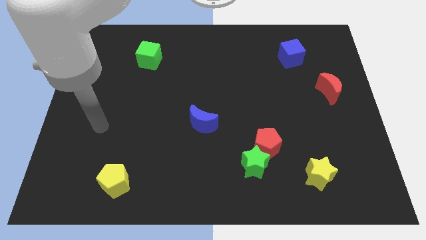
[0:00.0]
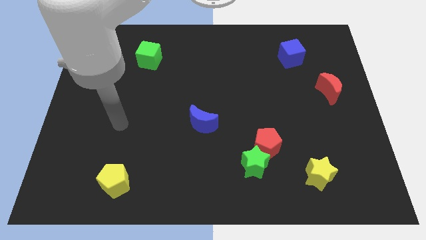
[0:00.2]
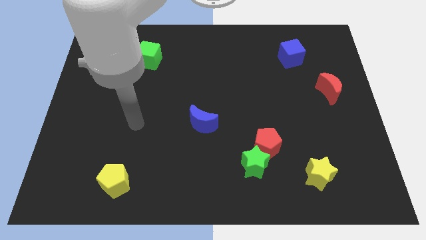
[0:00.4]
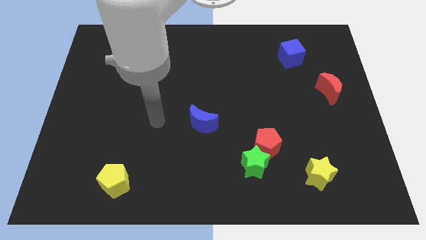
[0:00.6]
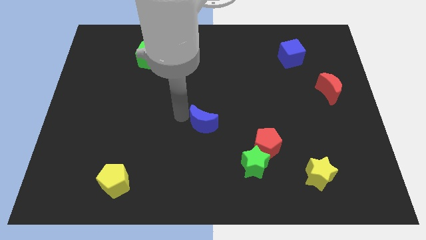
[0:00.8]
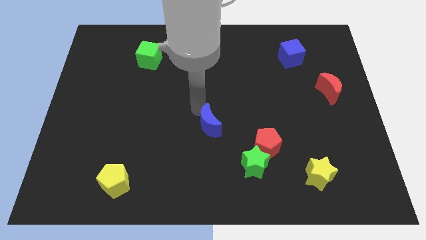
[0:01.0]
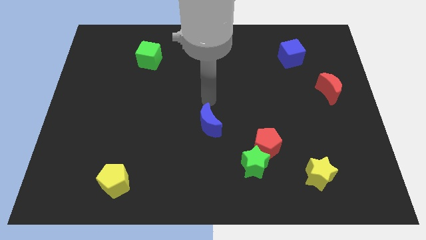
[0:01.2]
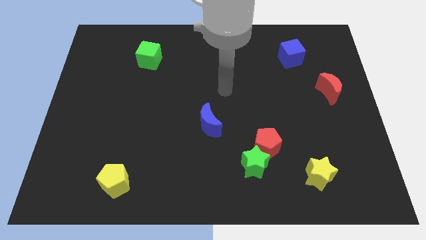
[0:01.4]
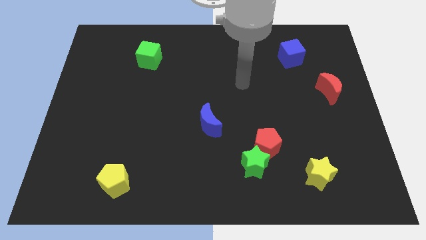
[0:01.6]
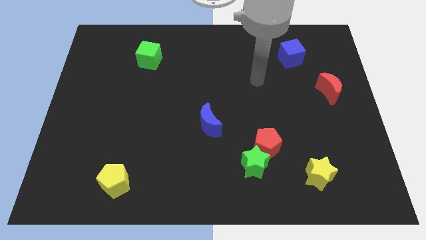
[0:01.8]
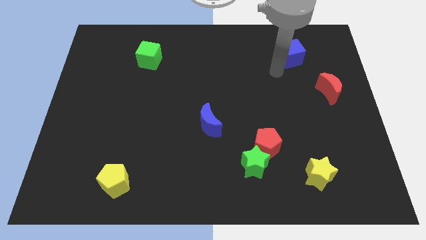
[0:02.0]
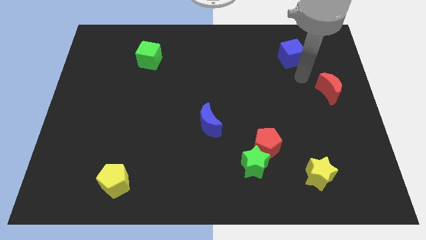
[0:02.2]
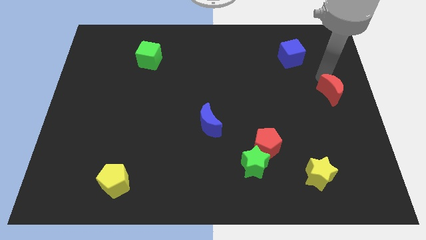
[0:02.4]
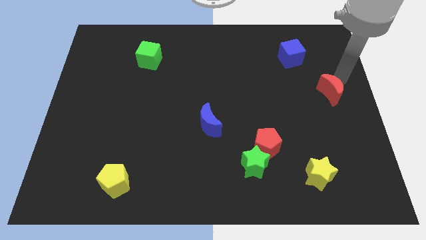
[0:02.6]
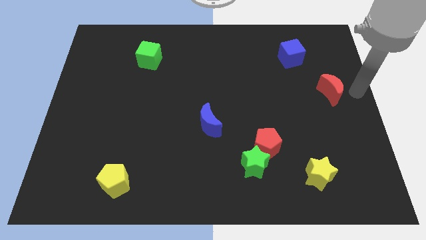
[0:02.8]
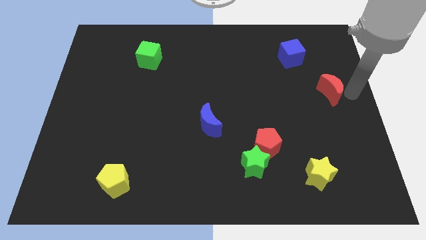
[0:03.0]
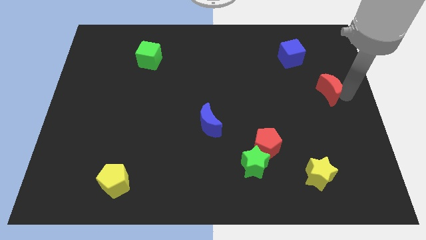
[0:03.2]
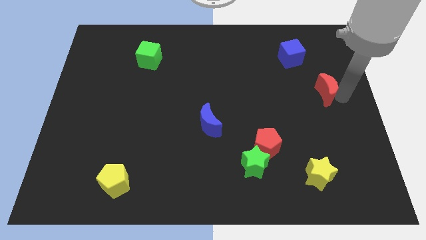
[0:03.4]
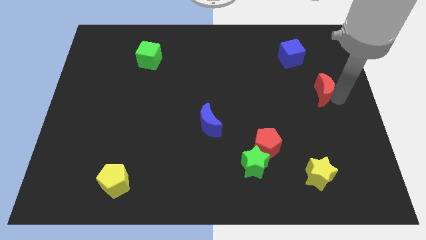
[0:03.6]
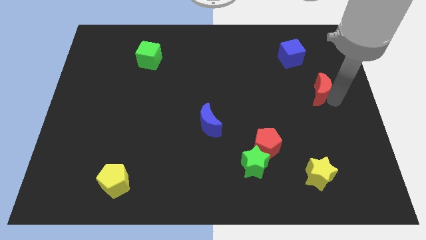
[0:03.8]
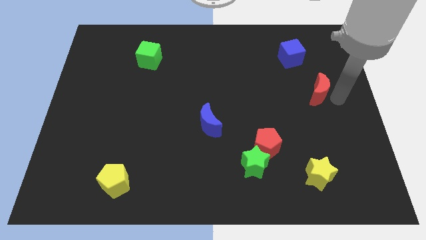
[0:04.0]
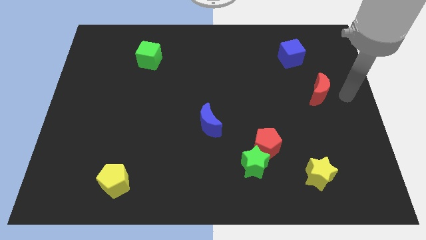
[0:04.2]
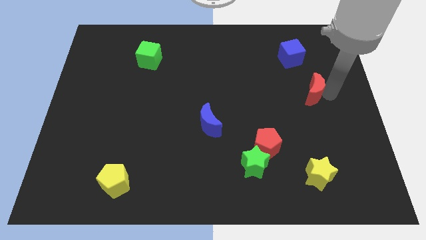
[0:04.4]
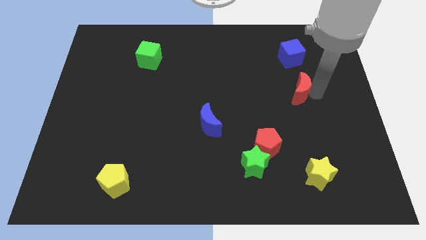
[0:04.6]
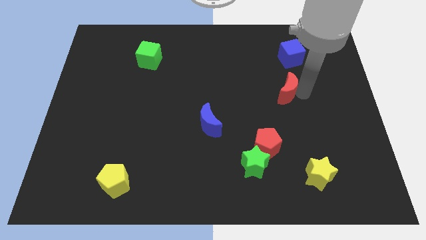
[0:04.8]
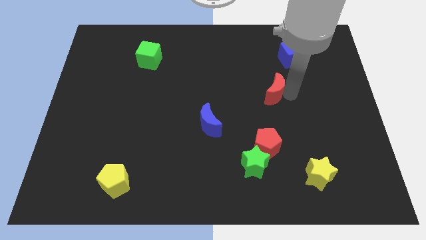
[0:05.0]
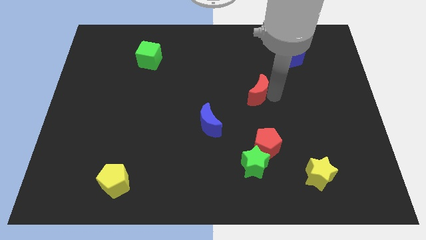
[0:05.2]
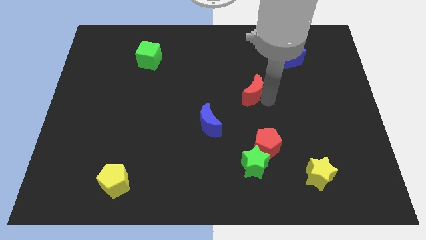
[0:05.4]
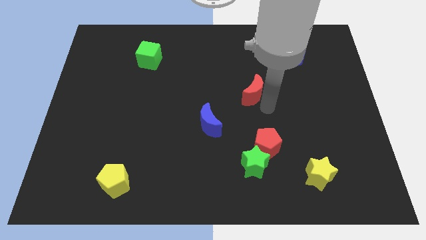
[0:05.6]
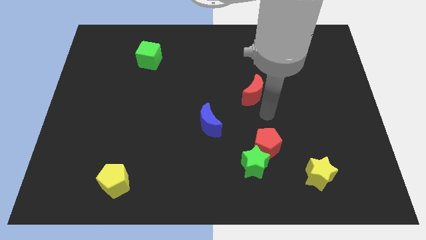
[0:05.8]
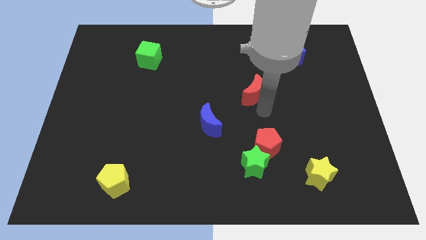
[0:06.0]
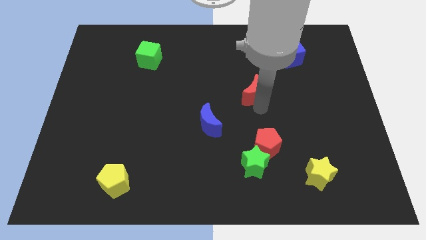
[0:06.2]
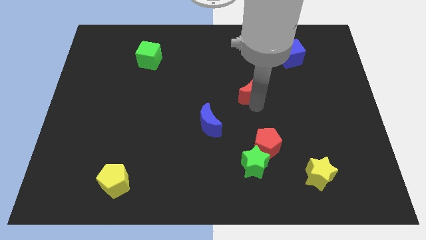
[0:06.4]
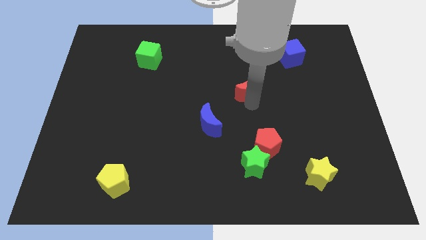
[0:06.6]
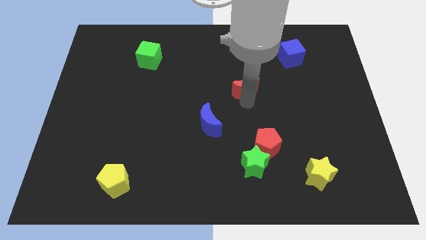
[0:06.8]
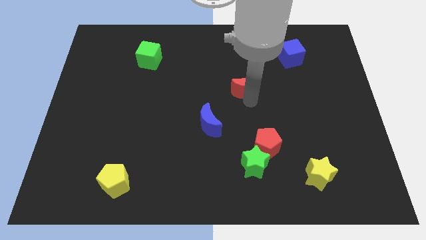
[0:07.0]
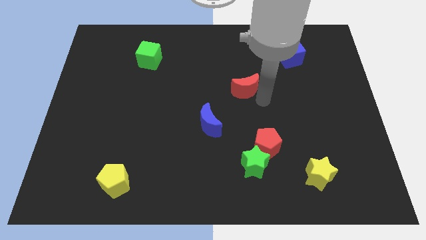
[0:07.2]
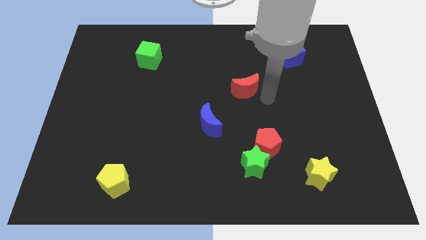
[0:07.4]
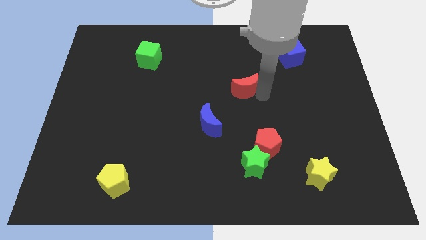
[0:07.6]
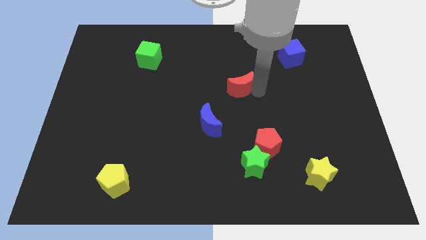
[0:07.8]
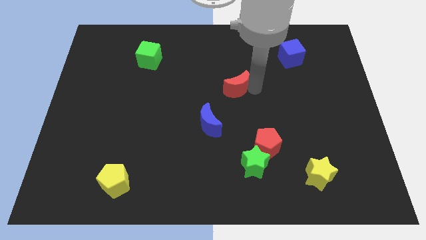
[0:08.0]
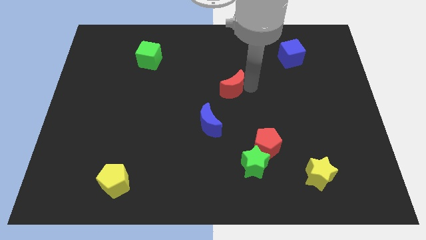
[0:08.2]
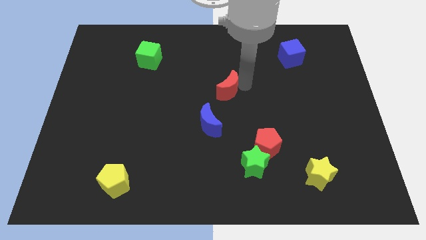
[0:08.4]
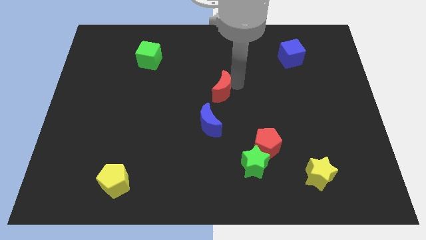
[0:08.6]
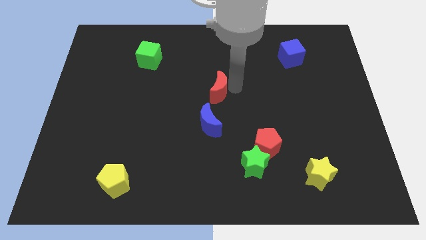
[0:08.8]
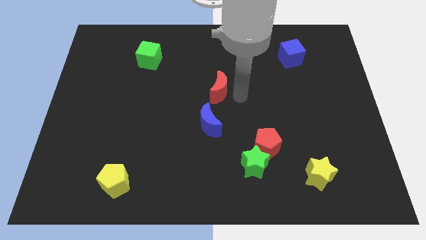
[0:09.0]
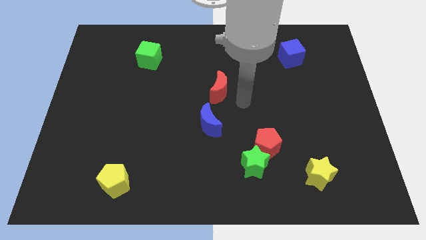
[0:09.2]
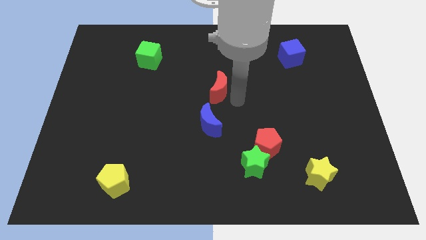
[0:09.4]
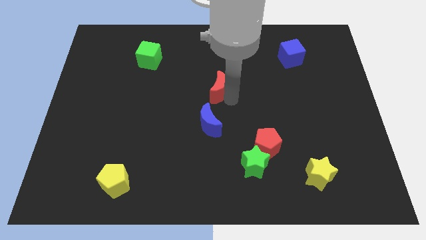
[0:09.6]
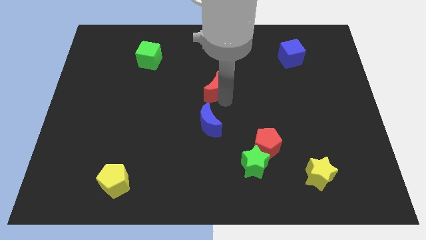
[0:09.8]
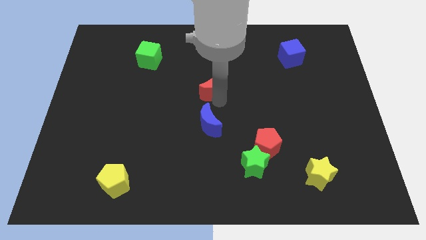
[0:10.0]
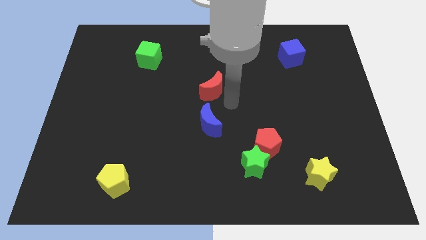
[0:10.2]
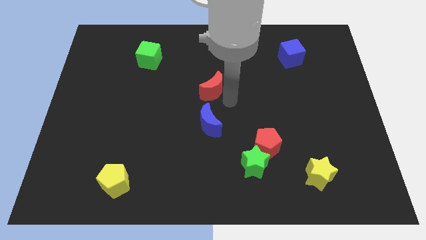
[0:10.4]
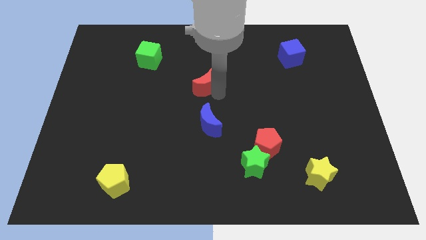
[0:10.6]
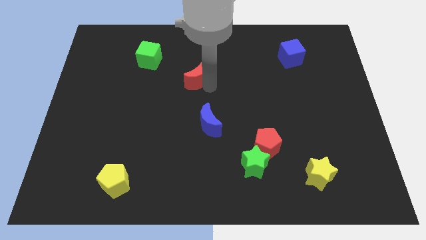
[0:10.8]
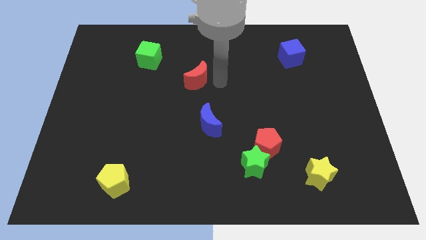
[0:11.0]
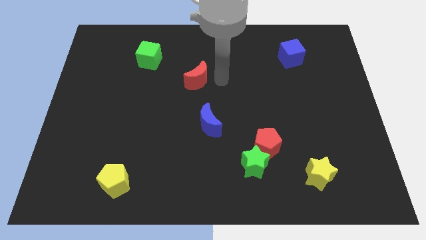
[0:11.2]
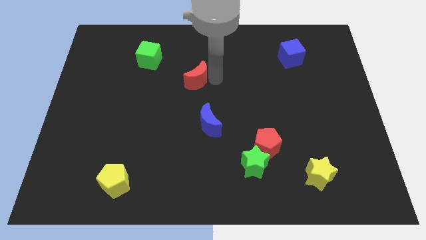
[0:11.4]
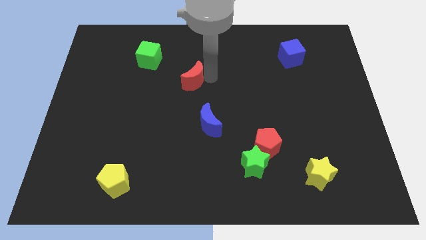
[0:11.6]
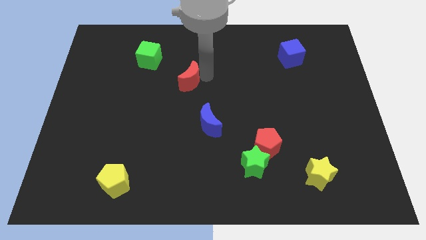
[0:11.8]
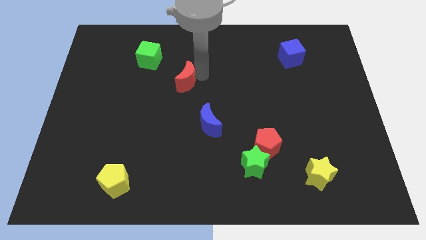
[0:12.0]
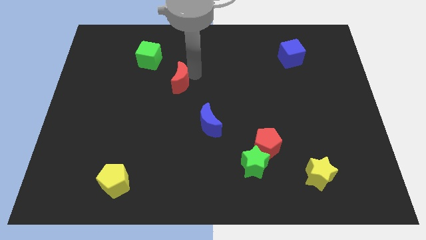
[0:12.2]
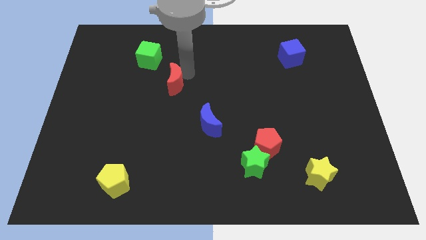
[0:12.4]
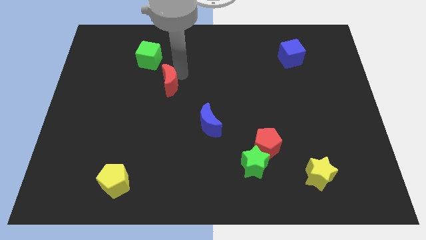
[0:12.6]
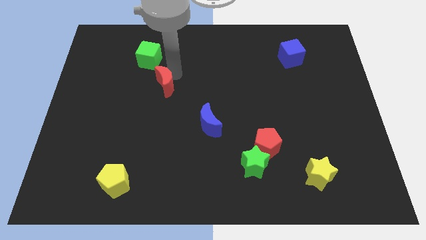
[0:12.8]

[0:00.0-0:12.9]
put the red moon to the bottom side of the green cube
